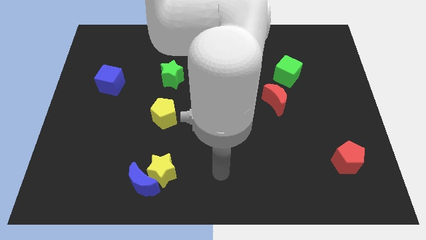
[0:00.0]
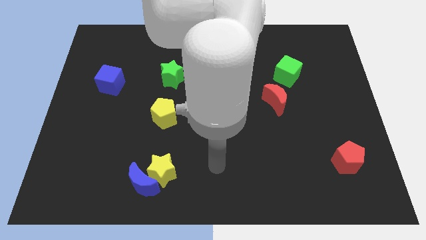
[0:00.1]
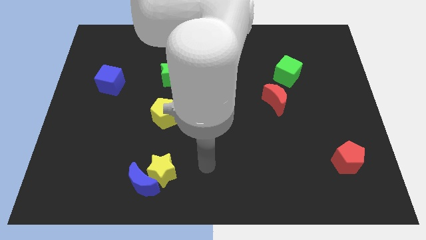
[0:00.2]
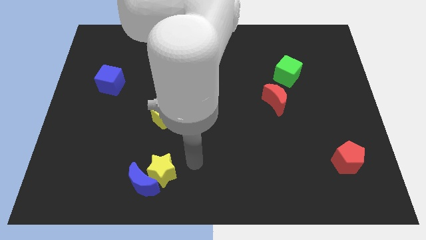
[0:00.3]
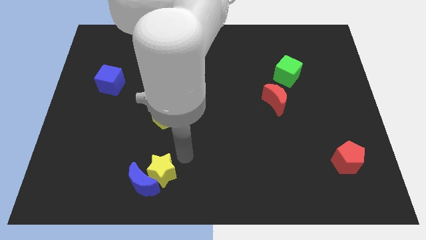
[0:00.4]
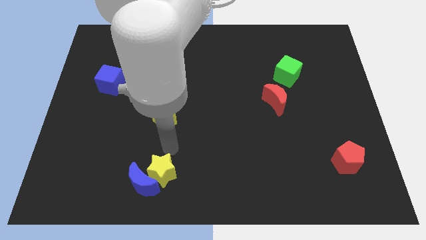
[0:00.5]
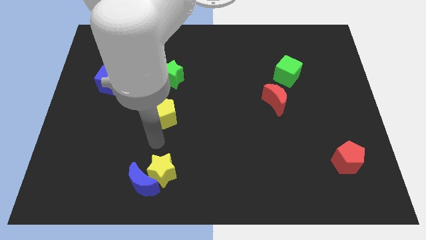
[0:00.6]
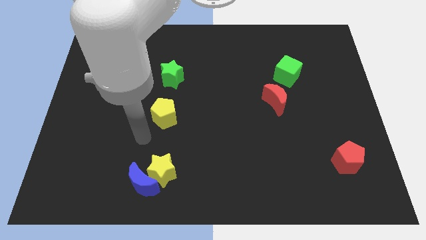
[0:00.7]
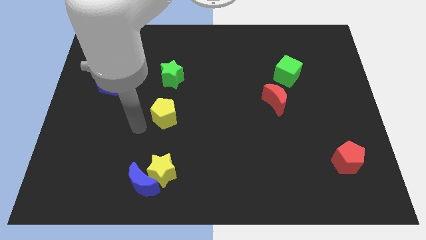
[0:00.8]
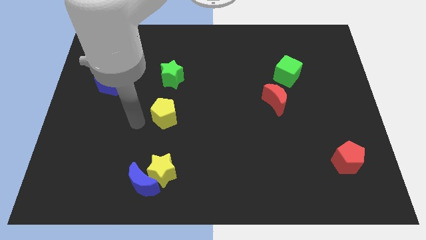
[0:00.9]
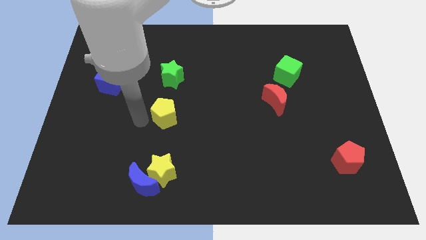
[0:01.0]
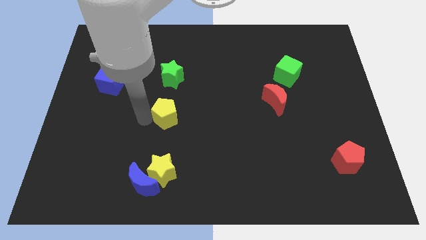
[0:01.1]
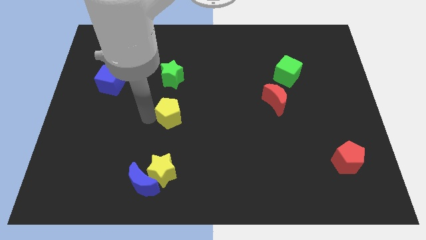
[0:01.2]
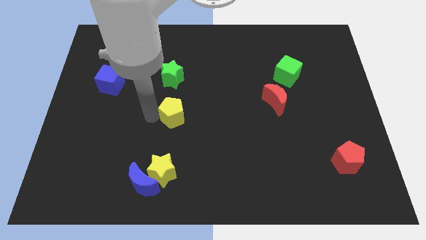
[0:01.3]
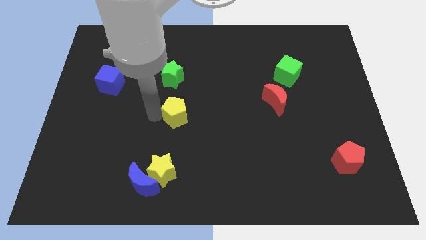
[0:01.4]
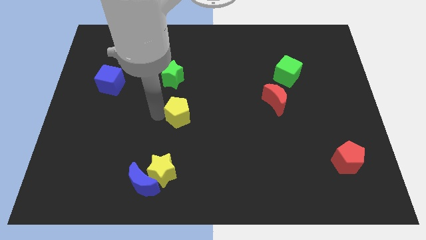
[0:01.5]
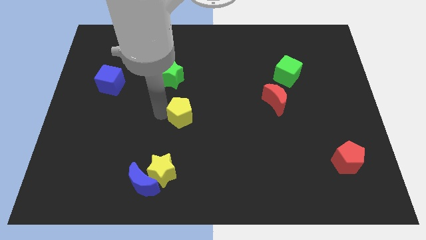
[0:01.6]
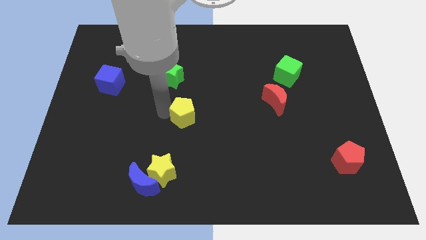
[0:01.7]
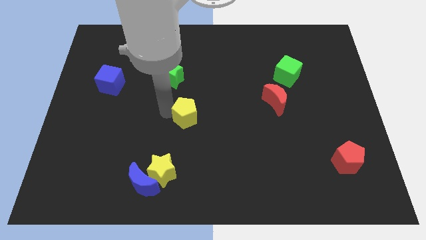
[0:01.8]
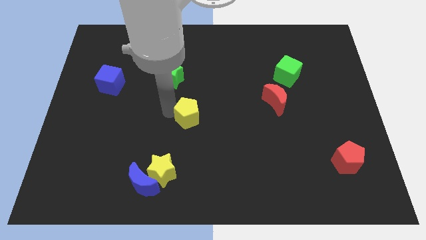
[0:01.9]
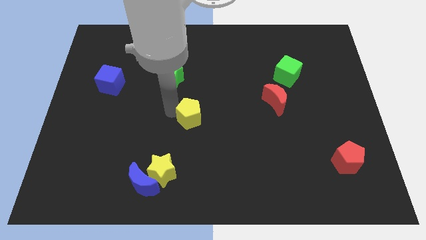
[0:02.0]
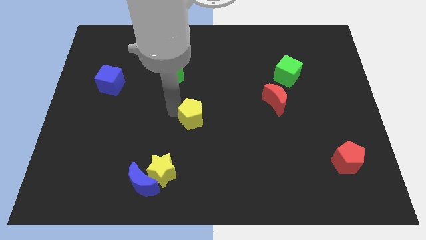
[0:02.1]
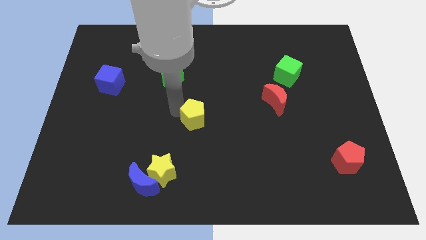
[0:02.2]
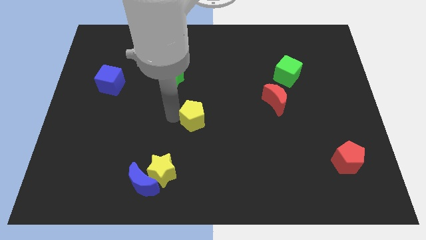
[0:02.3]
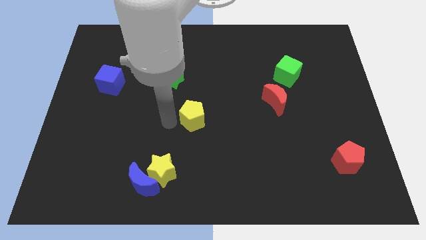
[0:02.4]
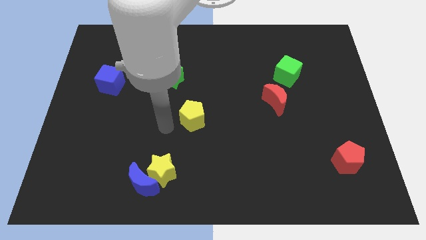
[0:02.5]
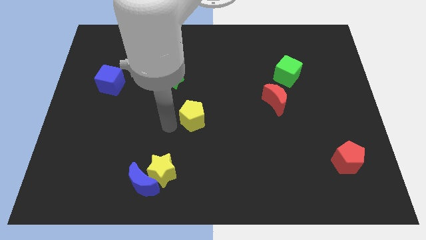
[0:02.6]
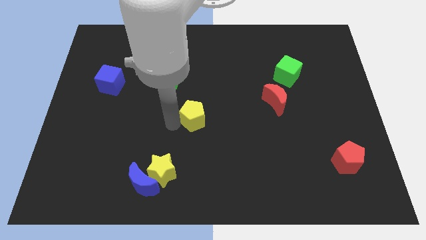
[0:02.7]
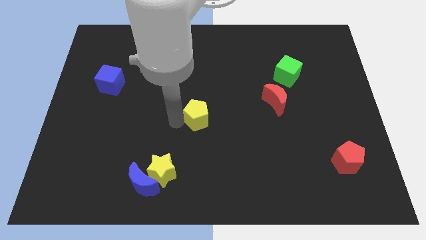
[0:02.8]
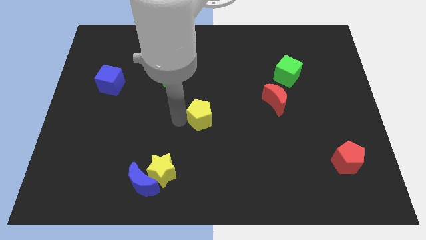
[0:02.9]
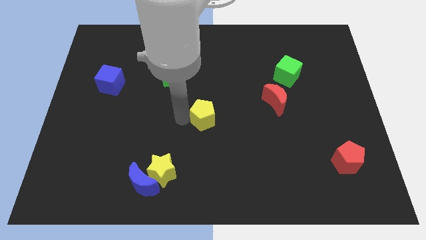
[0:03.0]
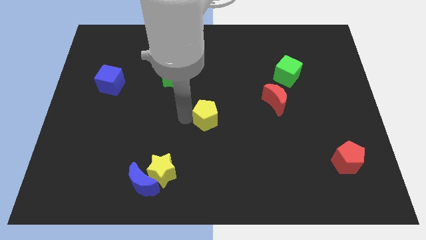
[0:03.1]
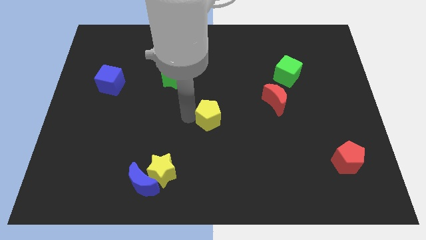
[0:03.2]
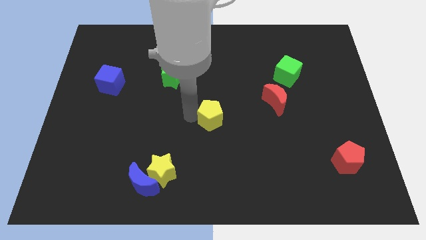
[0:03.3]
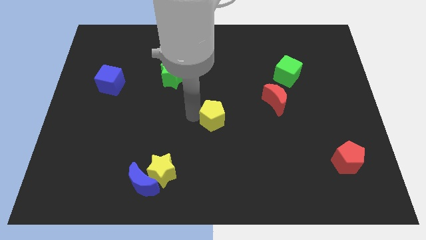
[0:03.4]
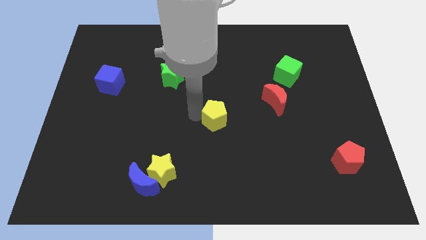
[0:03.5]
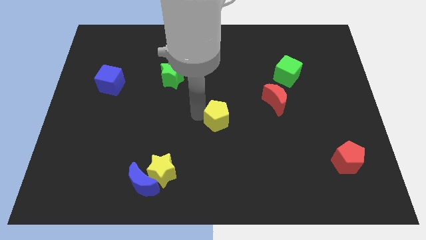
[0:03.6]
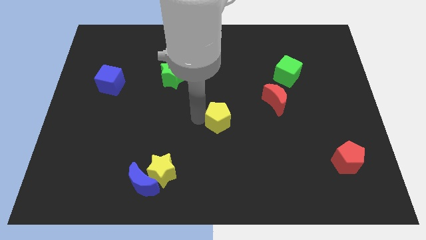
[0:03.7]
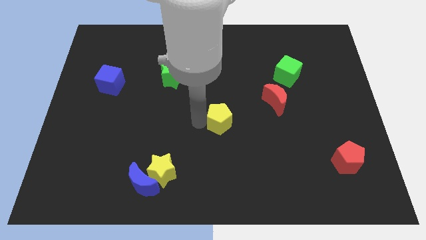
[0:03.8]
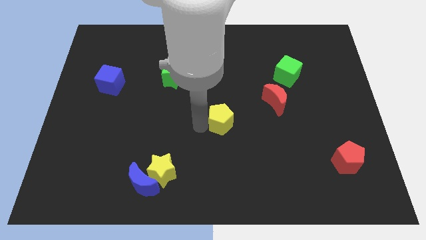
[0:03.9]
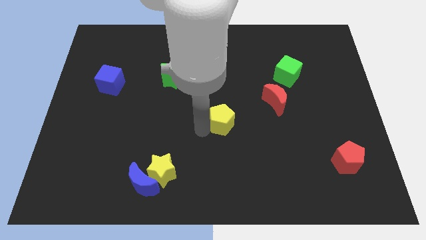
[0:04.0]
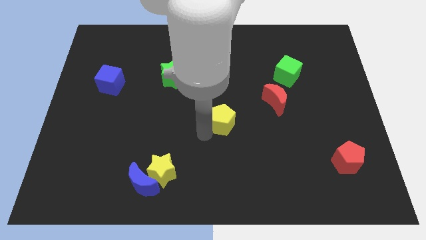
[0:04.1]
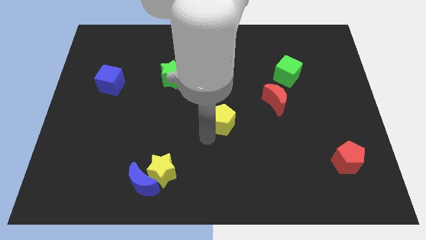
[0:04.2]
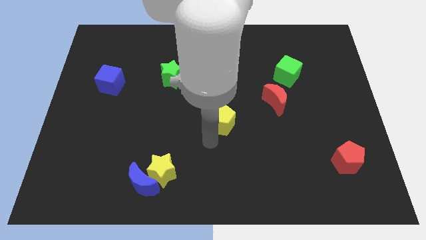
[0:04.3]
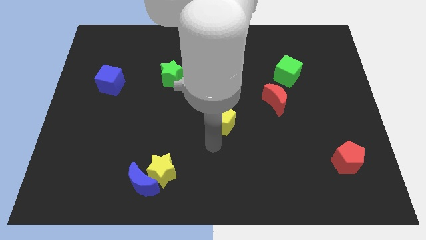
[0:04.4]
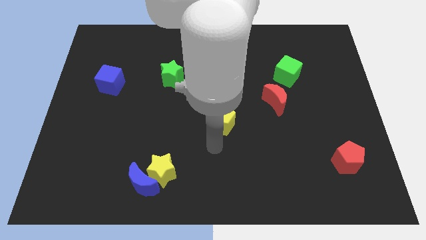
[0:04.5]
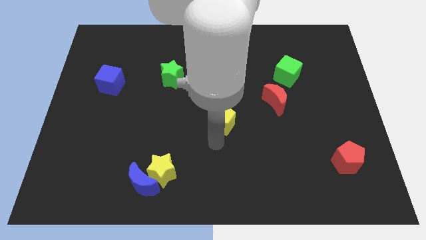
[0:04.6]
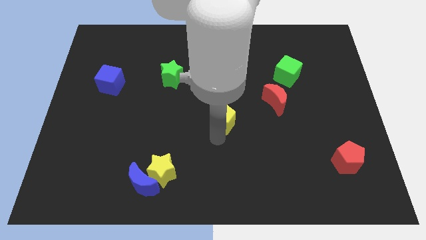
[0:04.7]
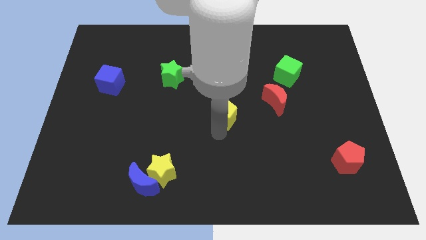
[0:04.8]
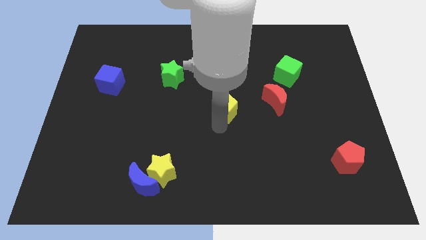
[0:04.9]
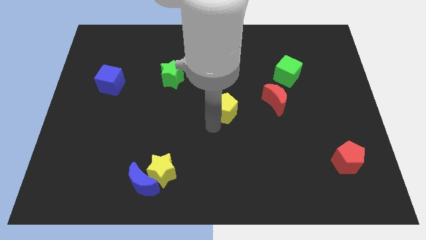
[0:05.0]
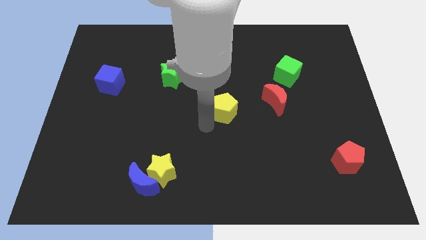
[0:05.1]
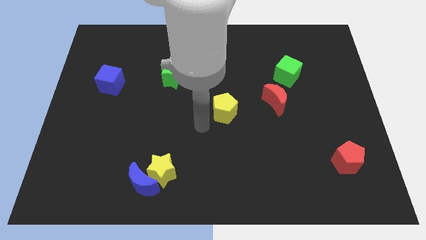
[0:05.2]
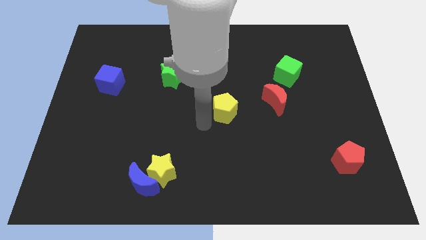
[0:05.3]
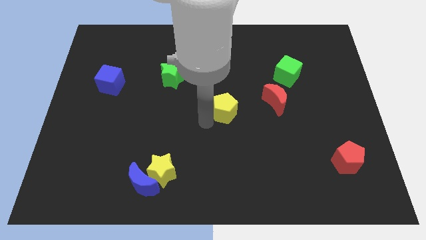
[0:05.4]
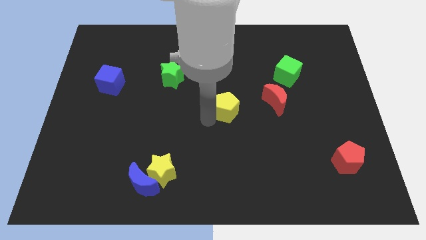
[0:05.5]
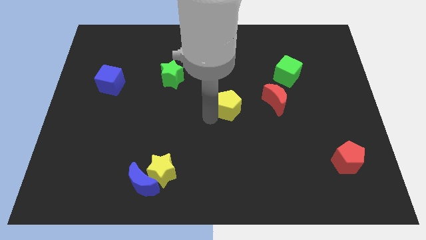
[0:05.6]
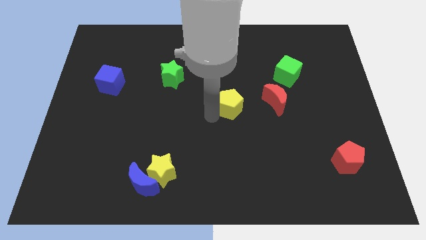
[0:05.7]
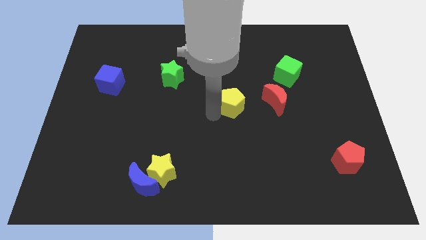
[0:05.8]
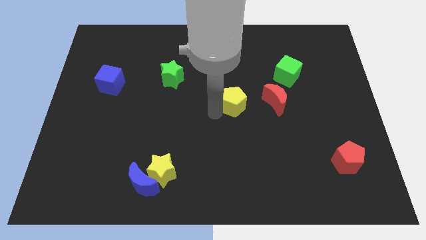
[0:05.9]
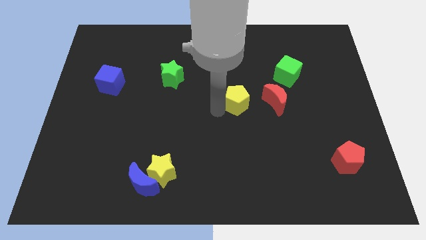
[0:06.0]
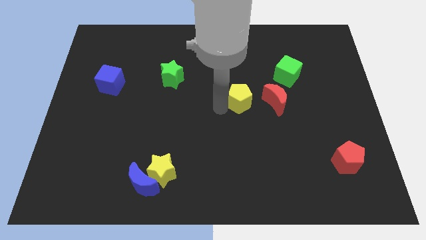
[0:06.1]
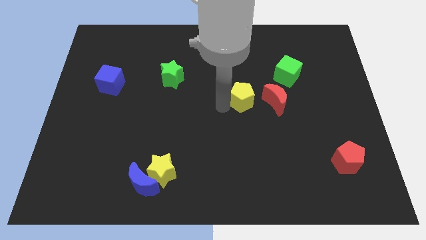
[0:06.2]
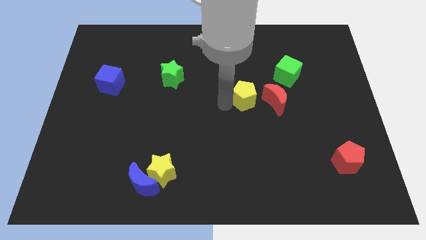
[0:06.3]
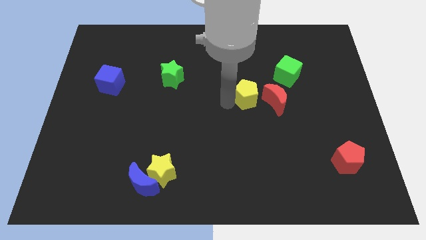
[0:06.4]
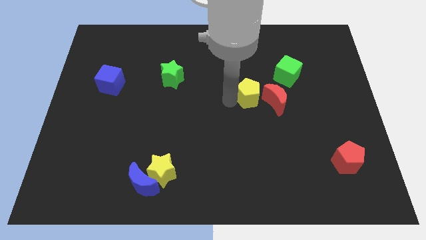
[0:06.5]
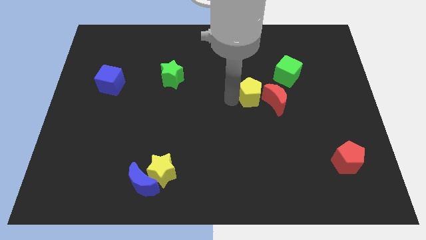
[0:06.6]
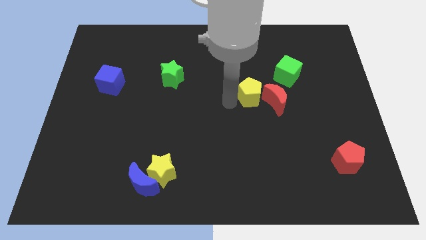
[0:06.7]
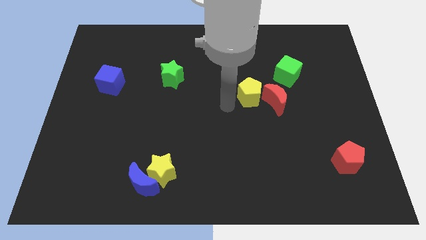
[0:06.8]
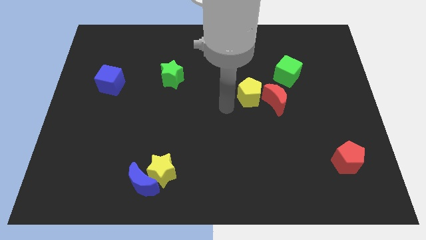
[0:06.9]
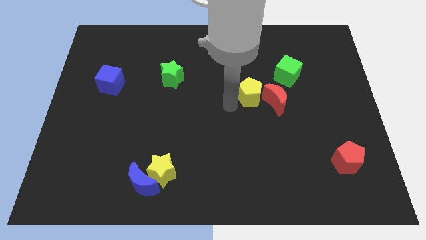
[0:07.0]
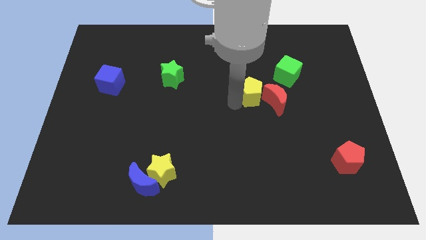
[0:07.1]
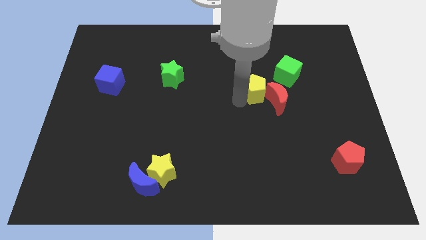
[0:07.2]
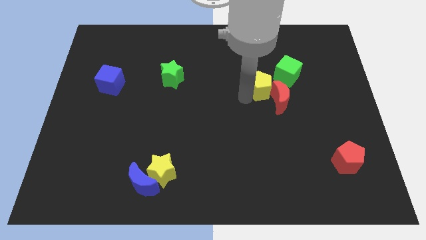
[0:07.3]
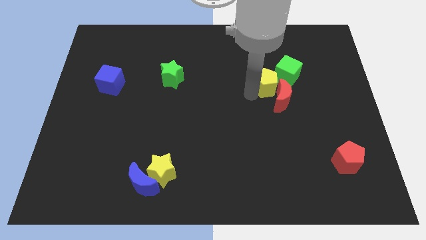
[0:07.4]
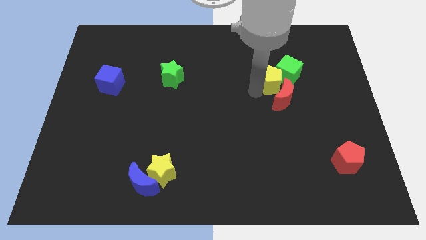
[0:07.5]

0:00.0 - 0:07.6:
push the yellow pentagon to the green cube
